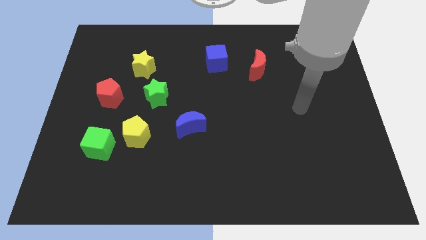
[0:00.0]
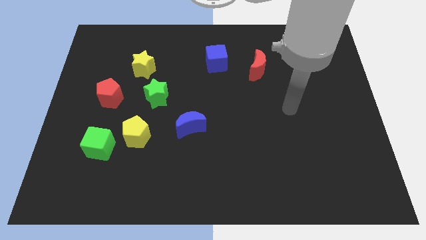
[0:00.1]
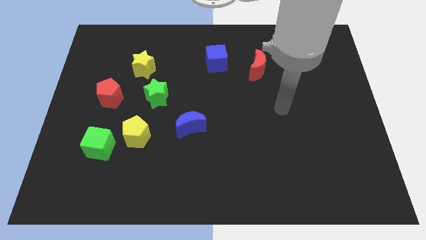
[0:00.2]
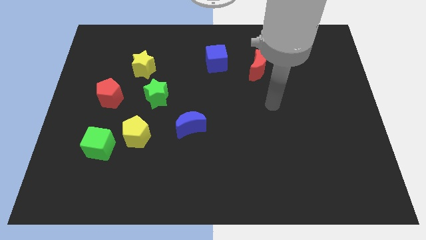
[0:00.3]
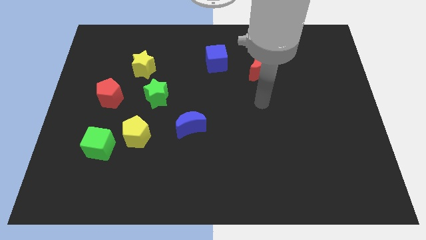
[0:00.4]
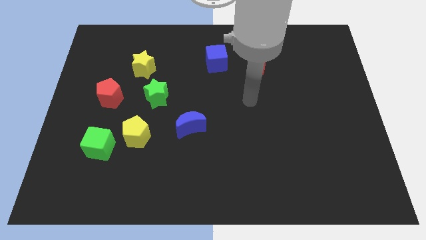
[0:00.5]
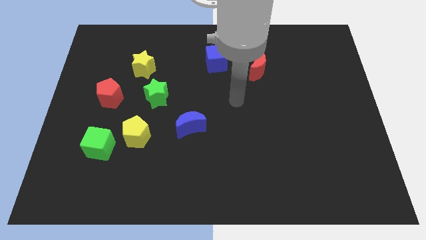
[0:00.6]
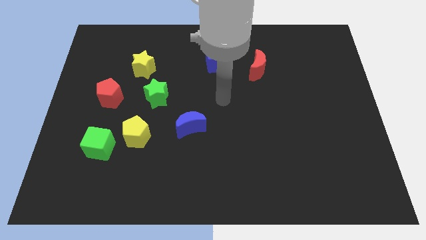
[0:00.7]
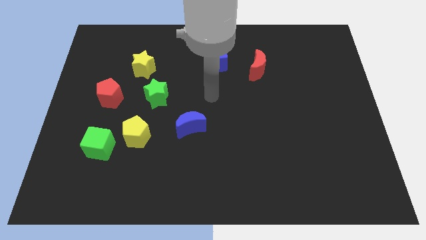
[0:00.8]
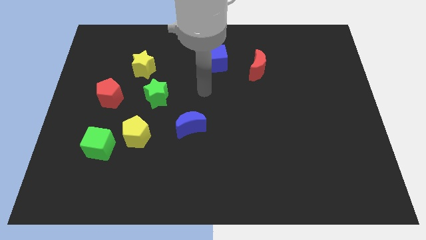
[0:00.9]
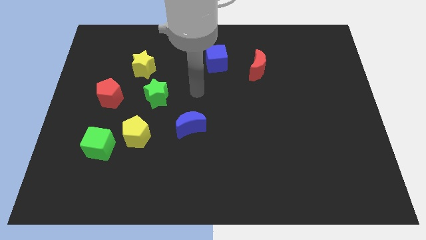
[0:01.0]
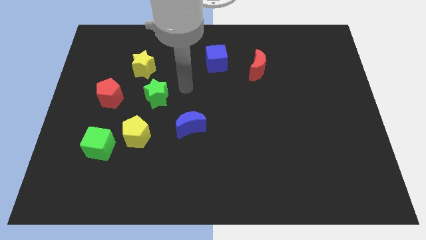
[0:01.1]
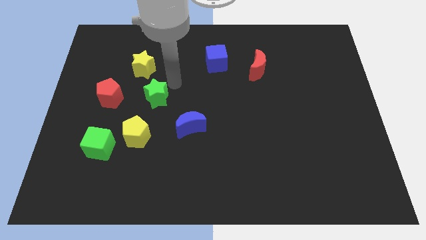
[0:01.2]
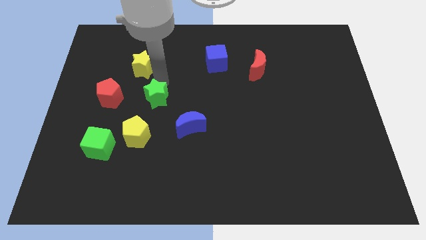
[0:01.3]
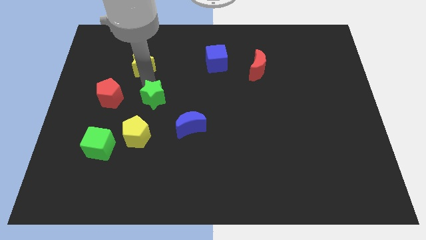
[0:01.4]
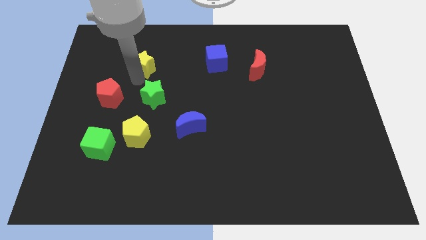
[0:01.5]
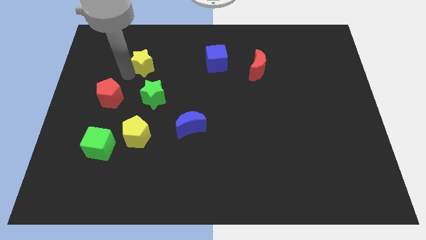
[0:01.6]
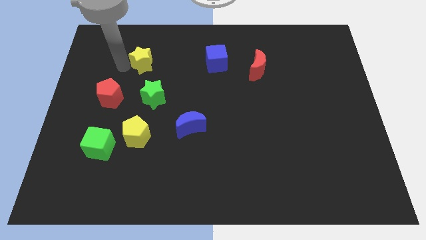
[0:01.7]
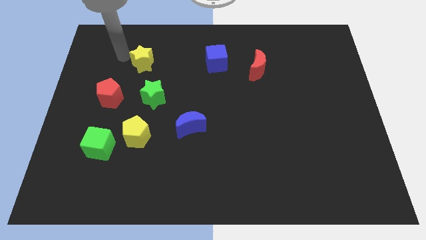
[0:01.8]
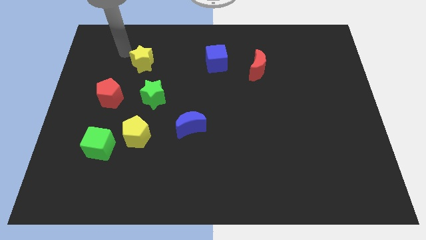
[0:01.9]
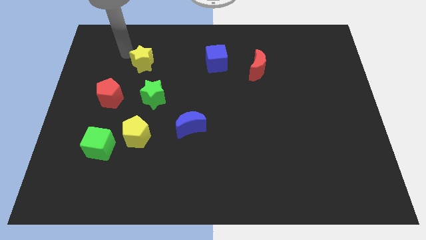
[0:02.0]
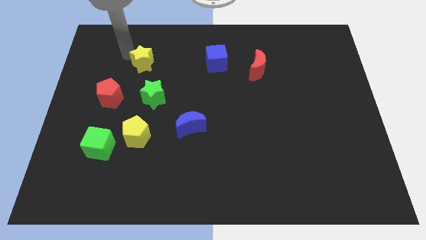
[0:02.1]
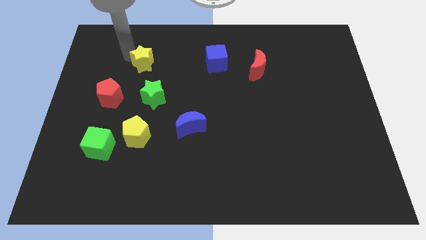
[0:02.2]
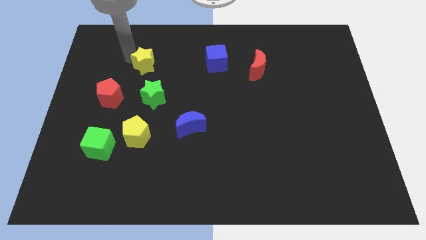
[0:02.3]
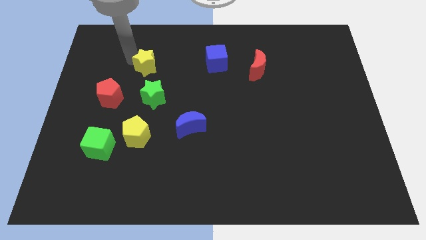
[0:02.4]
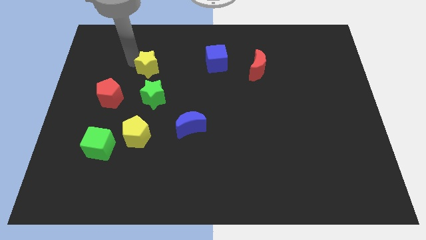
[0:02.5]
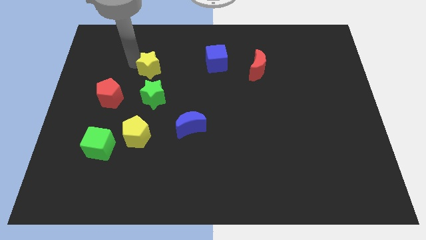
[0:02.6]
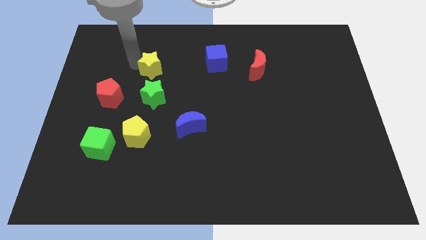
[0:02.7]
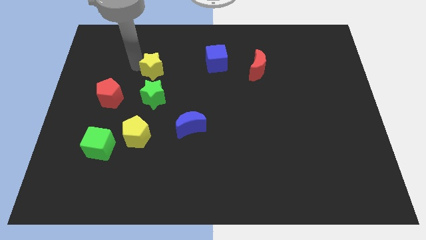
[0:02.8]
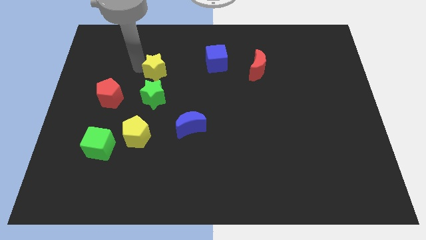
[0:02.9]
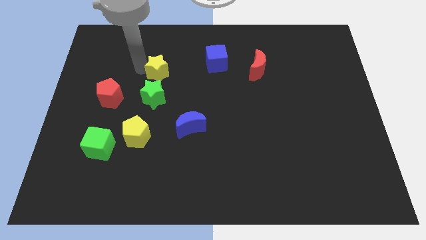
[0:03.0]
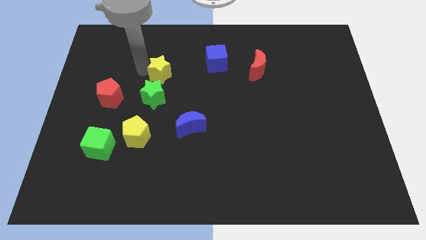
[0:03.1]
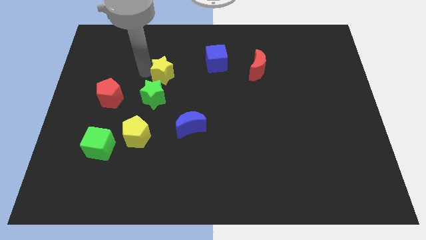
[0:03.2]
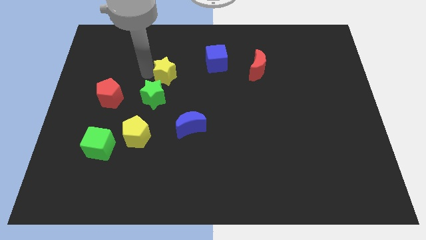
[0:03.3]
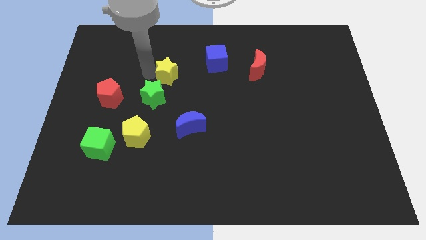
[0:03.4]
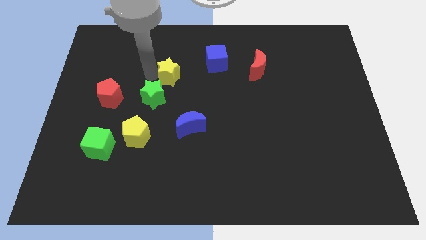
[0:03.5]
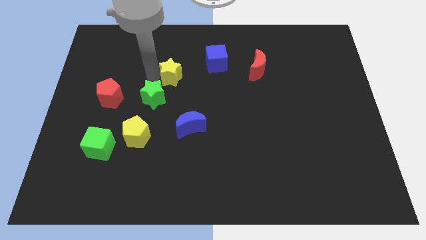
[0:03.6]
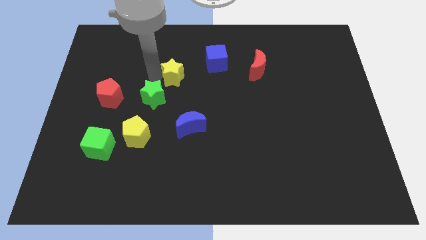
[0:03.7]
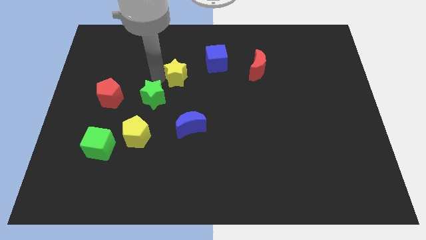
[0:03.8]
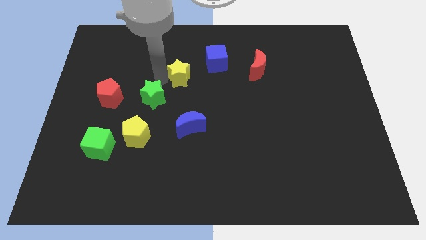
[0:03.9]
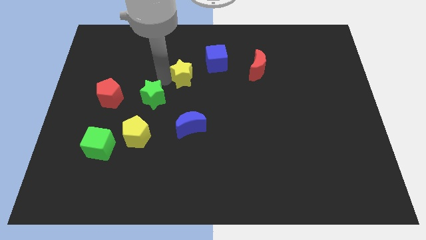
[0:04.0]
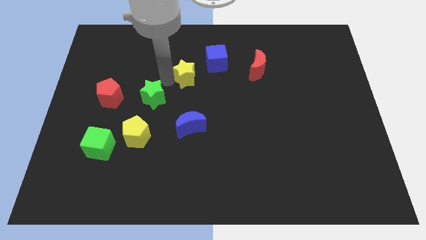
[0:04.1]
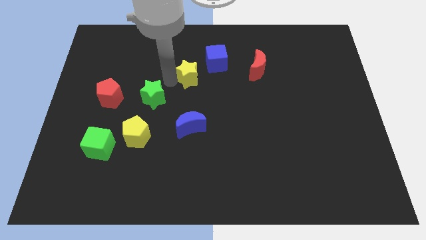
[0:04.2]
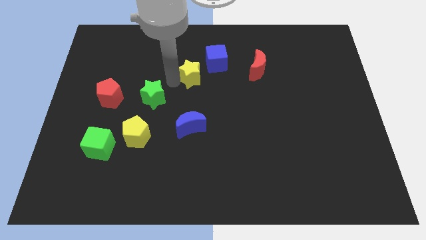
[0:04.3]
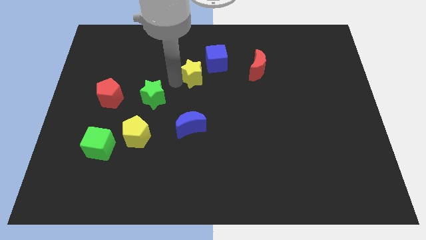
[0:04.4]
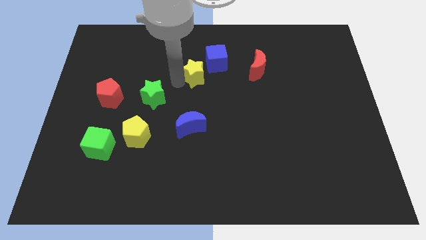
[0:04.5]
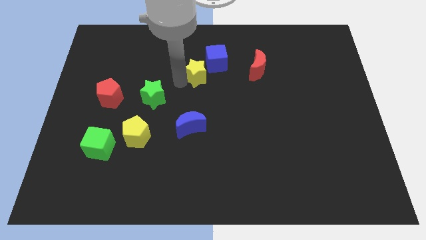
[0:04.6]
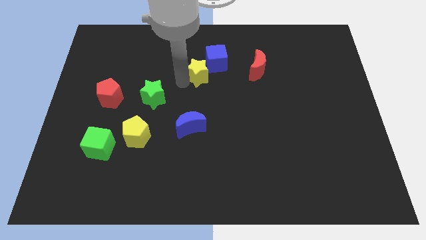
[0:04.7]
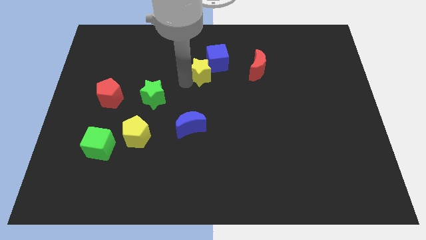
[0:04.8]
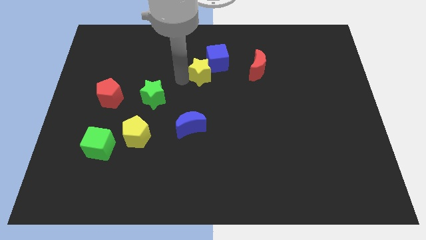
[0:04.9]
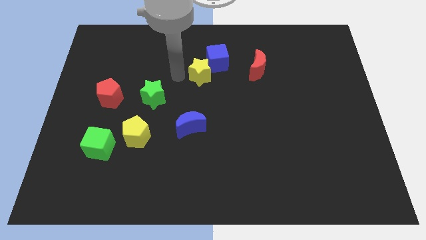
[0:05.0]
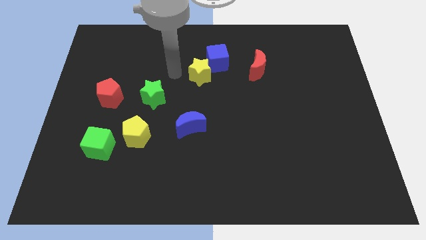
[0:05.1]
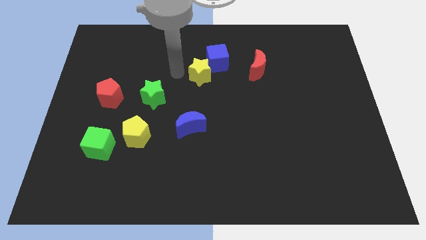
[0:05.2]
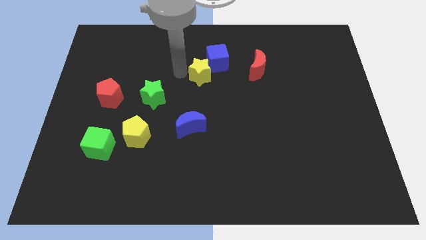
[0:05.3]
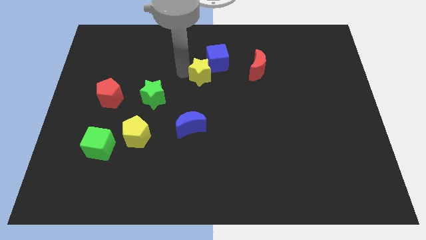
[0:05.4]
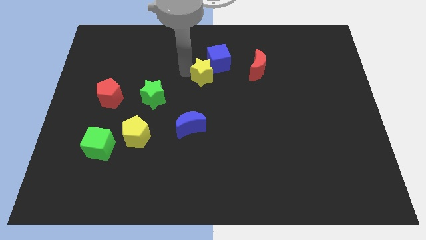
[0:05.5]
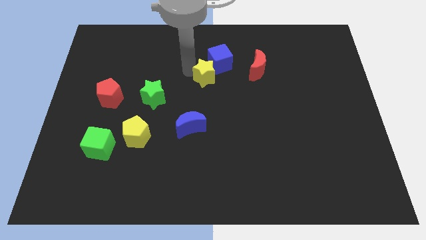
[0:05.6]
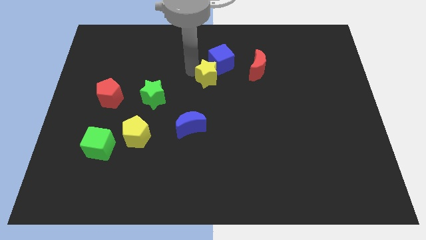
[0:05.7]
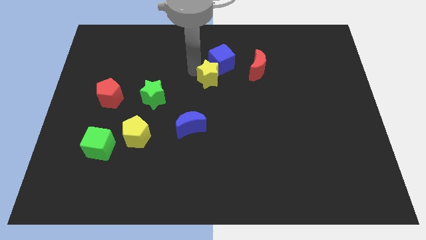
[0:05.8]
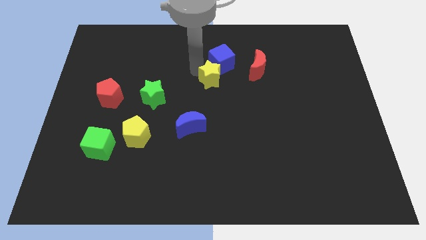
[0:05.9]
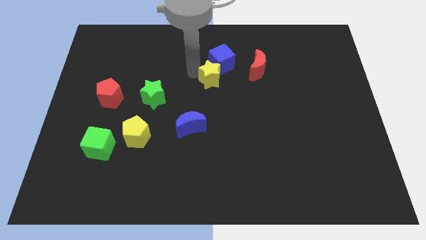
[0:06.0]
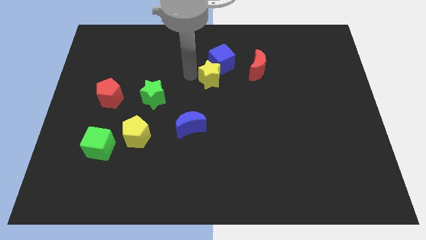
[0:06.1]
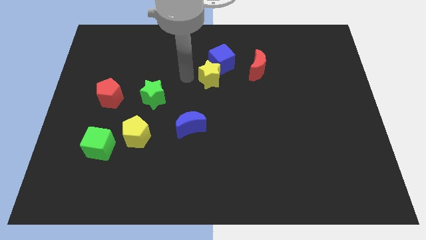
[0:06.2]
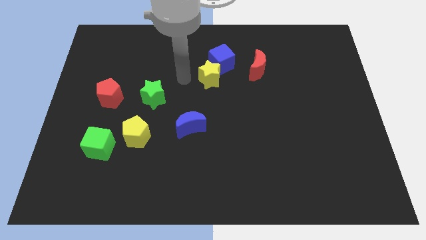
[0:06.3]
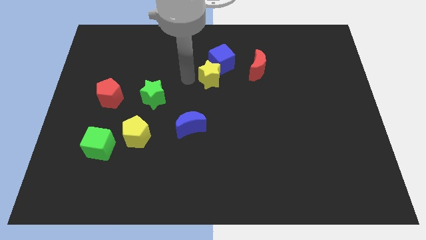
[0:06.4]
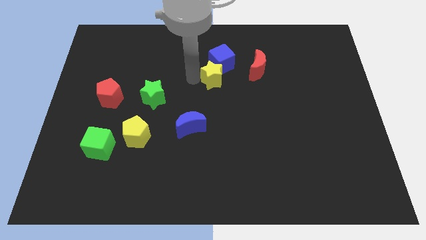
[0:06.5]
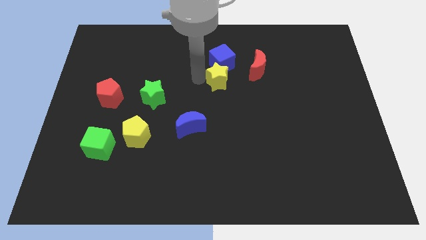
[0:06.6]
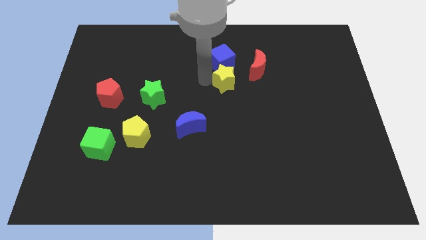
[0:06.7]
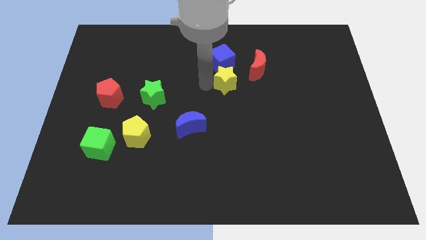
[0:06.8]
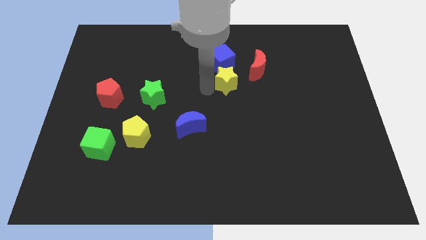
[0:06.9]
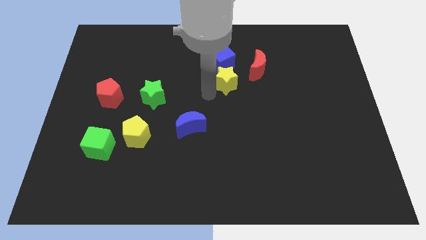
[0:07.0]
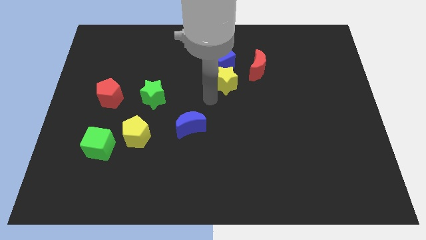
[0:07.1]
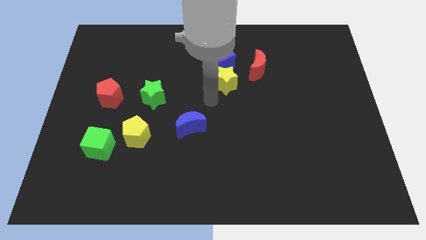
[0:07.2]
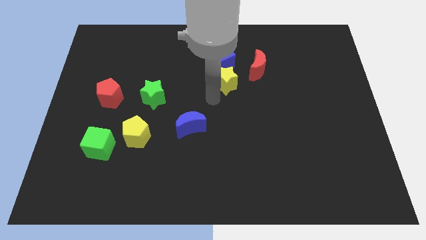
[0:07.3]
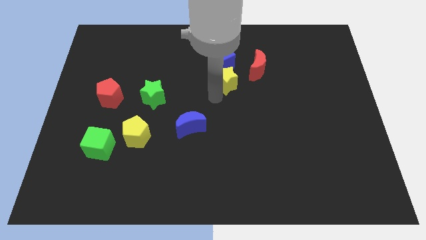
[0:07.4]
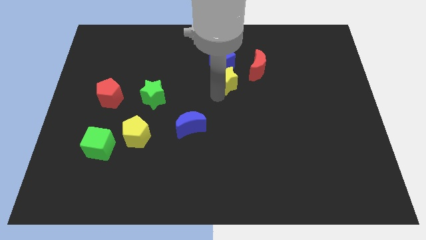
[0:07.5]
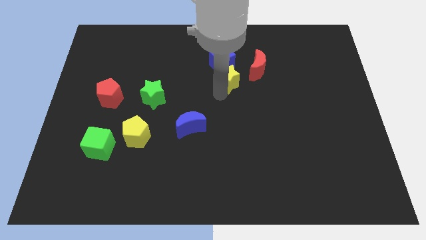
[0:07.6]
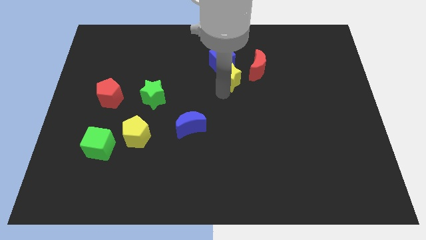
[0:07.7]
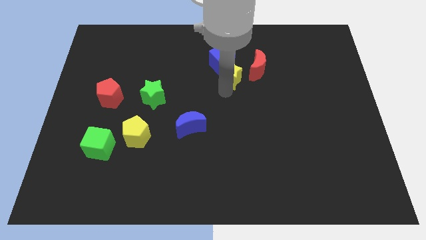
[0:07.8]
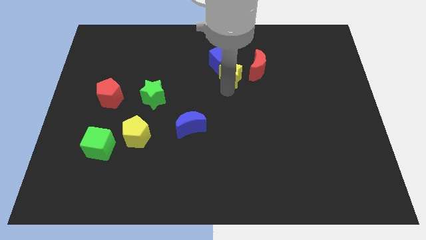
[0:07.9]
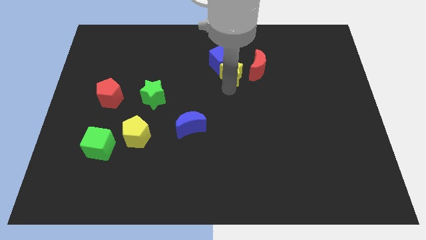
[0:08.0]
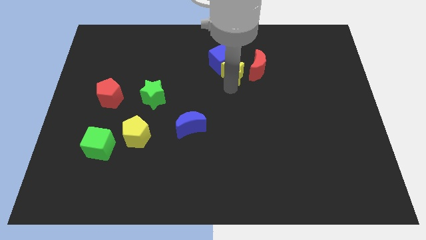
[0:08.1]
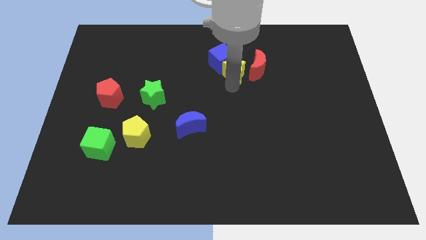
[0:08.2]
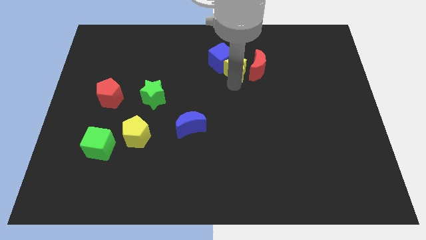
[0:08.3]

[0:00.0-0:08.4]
push the yellow star towards the red moon
